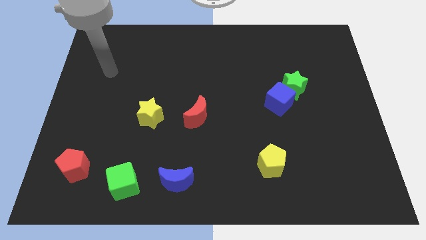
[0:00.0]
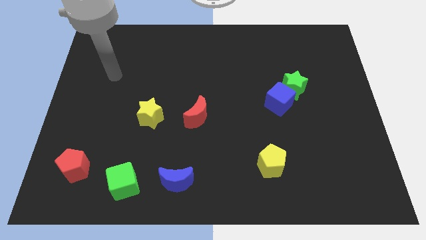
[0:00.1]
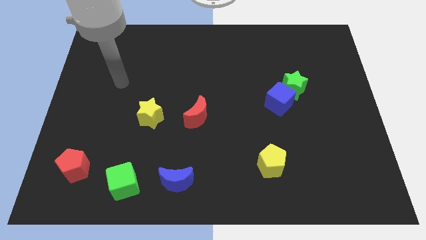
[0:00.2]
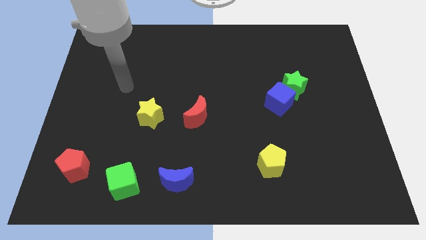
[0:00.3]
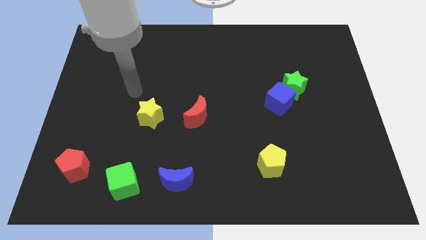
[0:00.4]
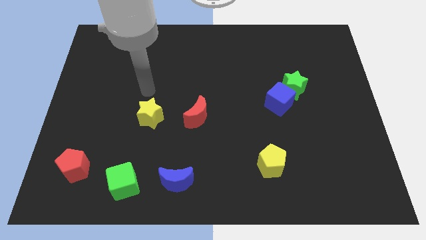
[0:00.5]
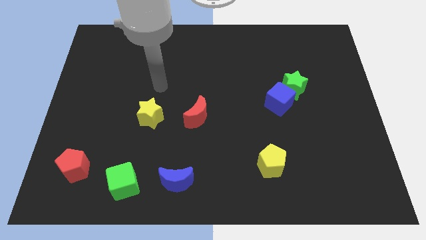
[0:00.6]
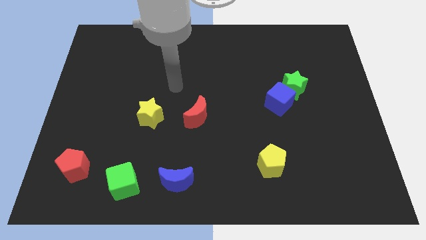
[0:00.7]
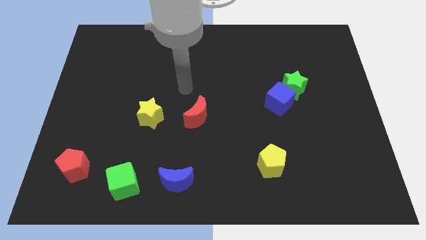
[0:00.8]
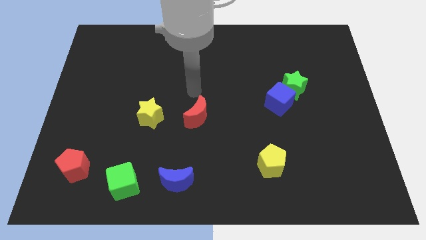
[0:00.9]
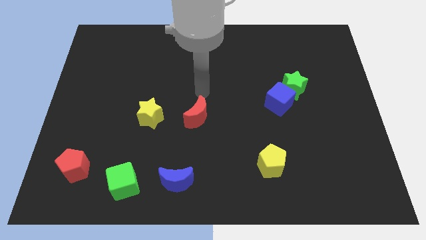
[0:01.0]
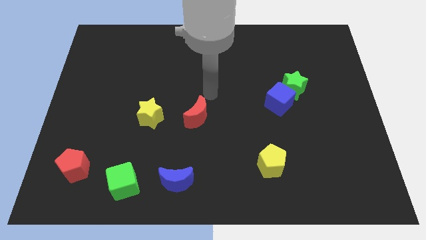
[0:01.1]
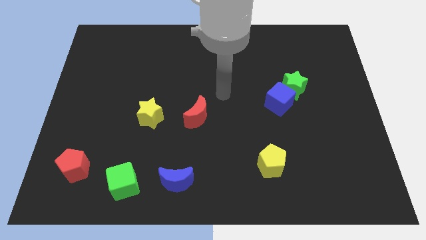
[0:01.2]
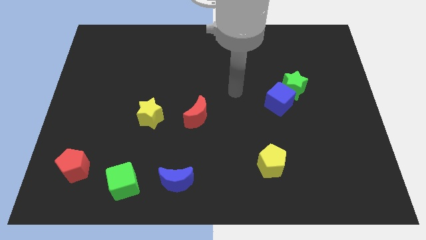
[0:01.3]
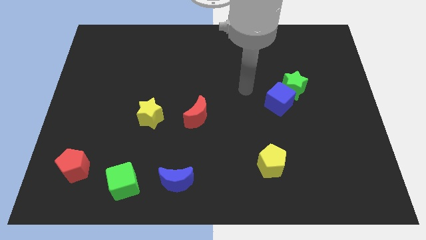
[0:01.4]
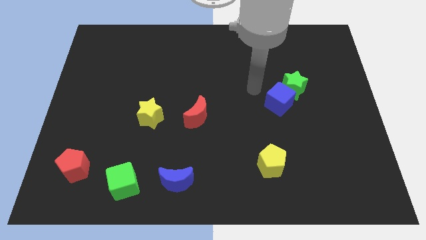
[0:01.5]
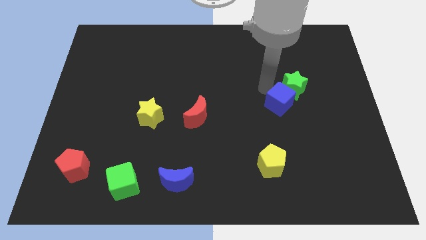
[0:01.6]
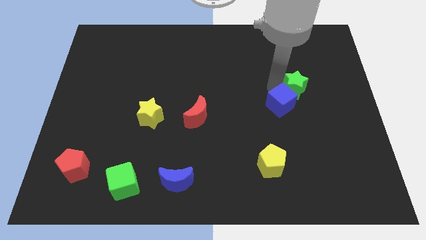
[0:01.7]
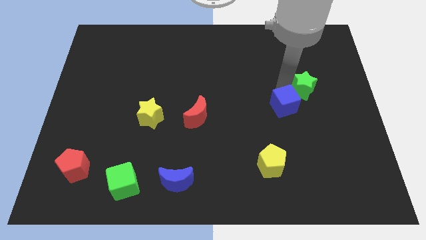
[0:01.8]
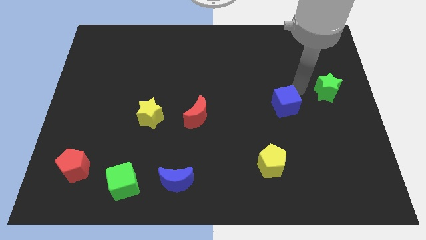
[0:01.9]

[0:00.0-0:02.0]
move the blue cube away from the green star

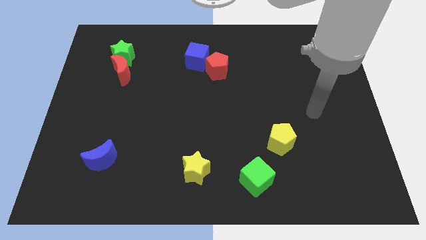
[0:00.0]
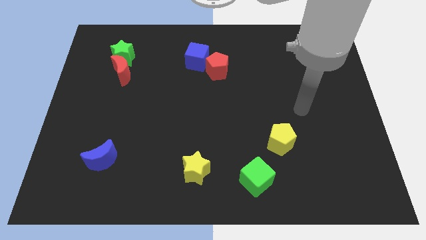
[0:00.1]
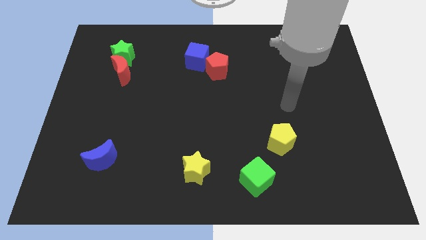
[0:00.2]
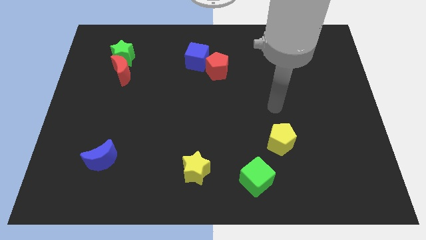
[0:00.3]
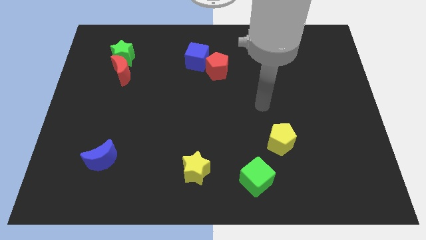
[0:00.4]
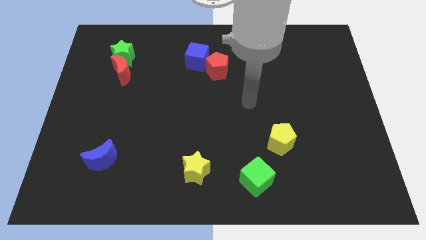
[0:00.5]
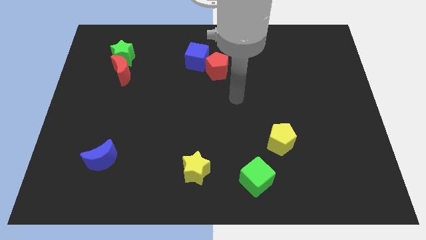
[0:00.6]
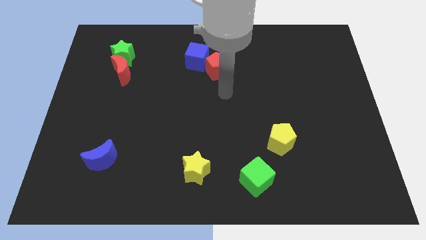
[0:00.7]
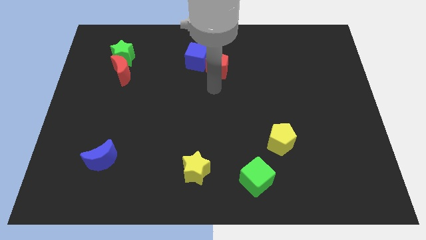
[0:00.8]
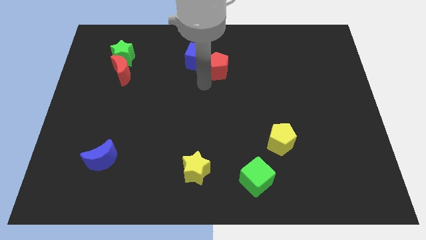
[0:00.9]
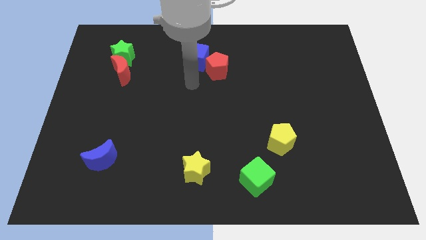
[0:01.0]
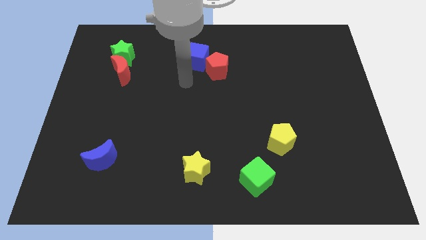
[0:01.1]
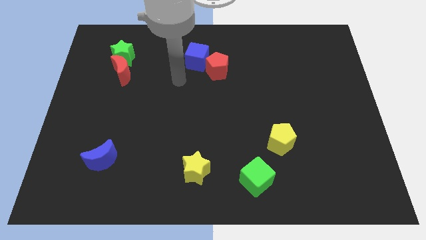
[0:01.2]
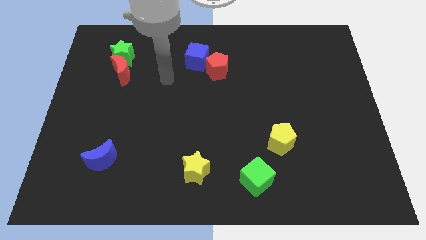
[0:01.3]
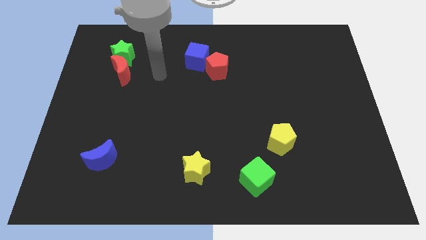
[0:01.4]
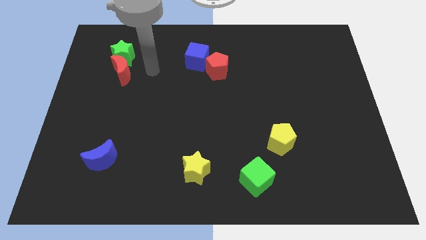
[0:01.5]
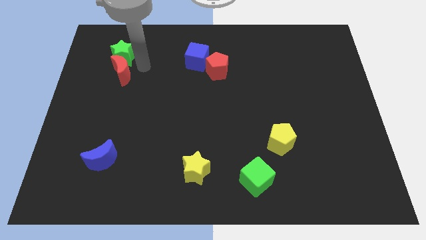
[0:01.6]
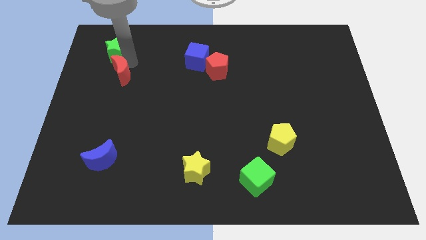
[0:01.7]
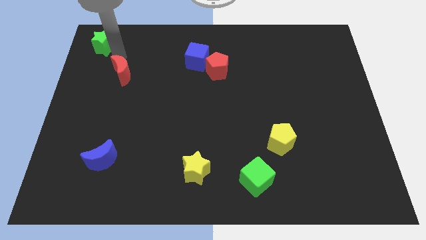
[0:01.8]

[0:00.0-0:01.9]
separate the red moon from the green star

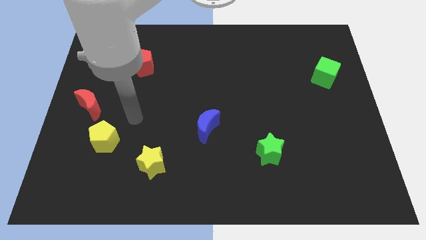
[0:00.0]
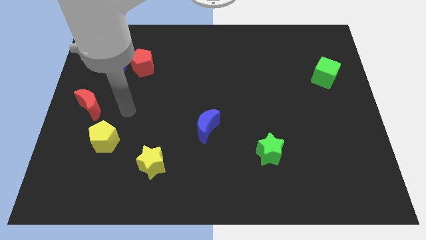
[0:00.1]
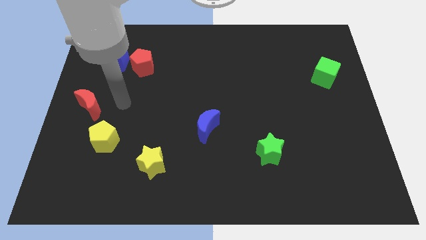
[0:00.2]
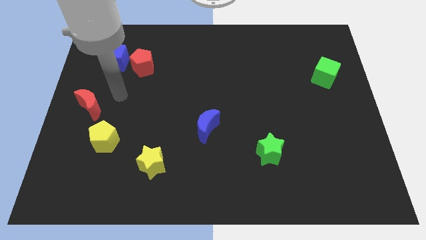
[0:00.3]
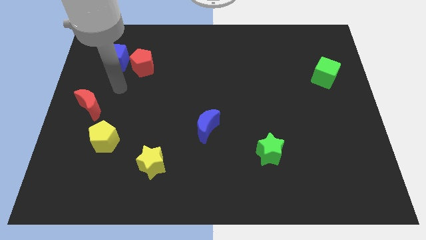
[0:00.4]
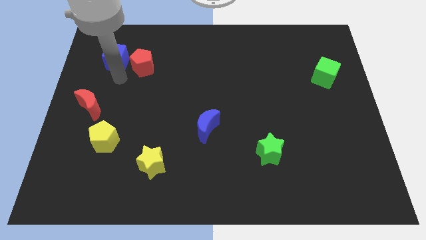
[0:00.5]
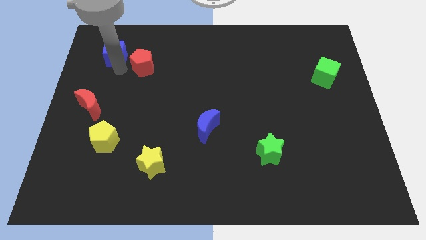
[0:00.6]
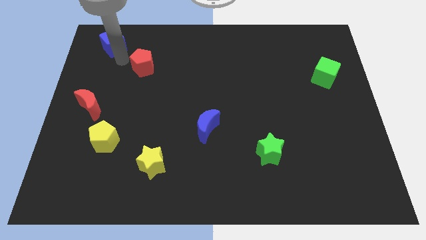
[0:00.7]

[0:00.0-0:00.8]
separate the red pentagon from the blue cube

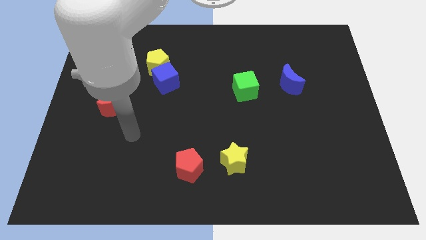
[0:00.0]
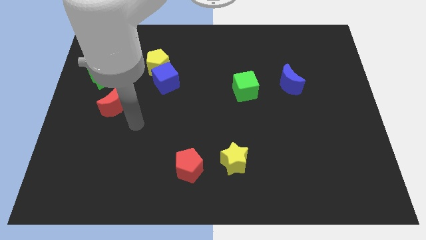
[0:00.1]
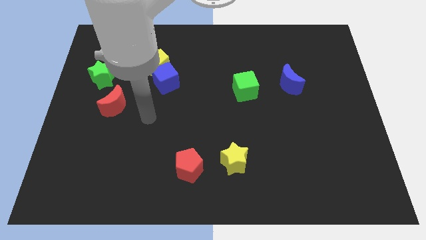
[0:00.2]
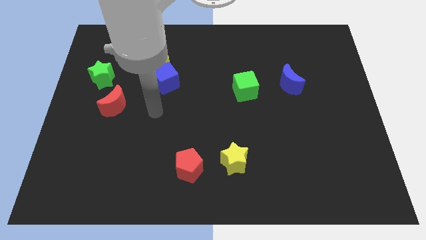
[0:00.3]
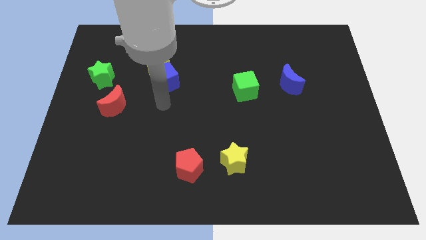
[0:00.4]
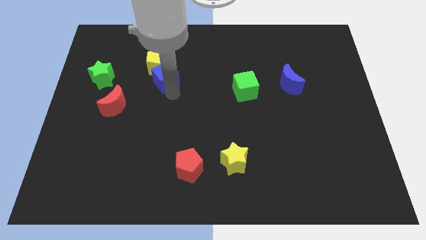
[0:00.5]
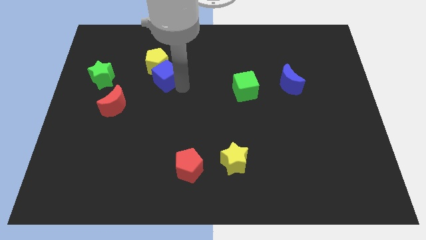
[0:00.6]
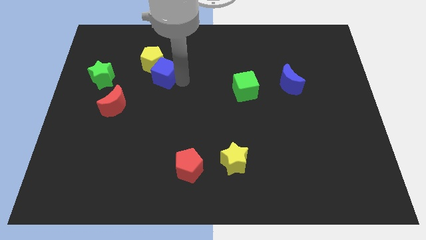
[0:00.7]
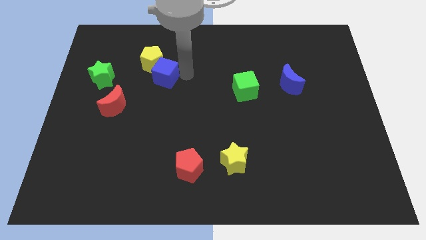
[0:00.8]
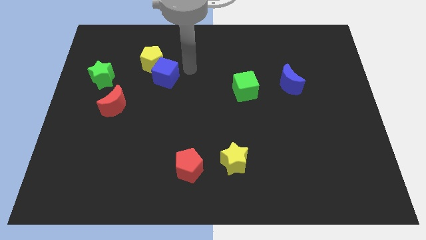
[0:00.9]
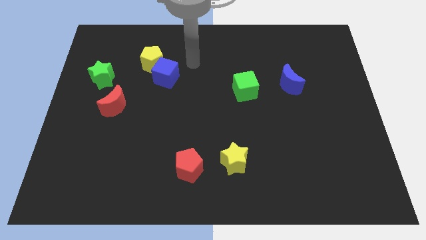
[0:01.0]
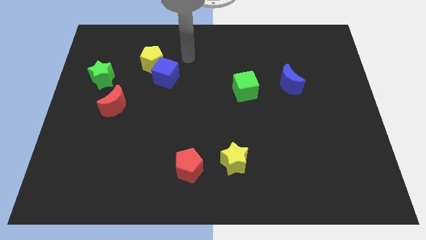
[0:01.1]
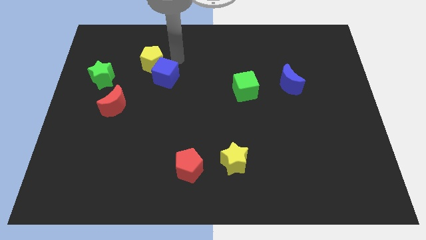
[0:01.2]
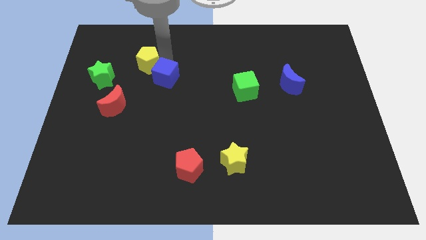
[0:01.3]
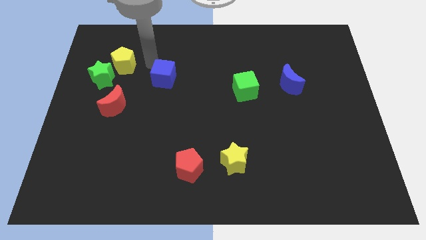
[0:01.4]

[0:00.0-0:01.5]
separate the blue cube from the yellow pentagon

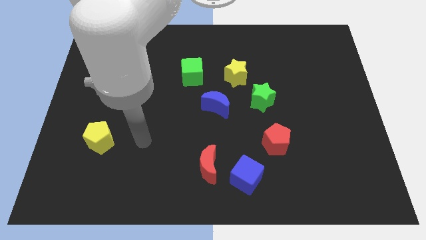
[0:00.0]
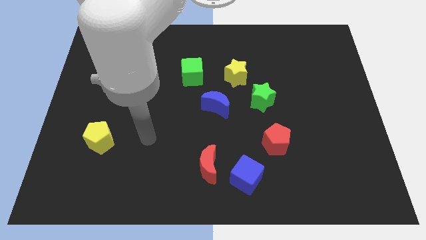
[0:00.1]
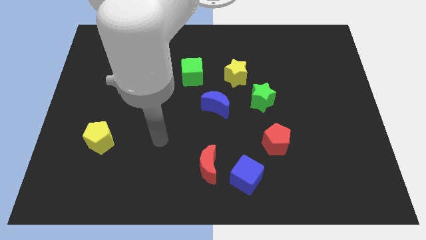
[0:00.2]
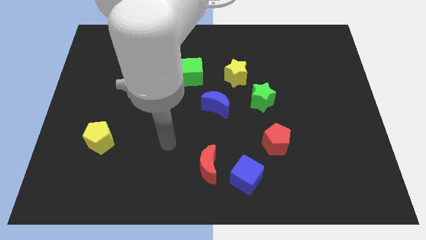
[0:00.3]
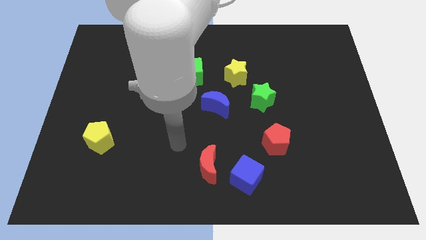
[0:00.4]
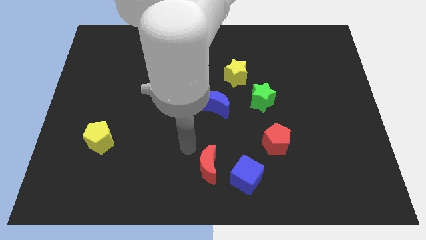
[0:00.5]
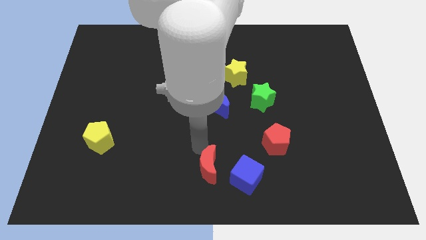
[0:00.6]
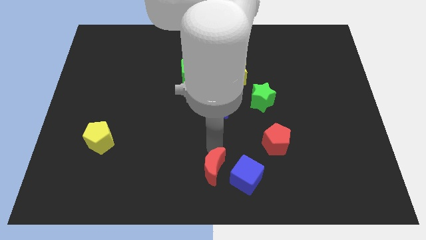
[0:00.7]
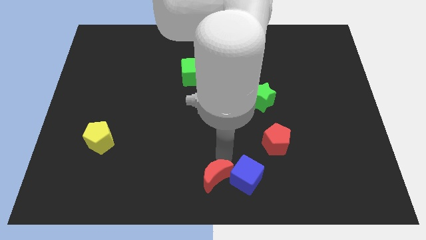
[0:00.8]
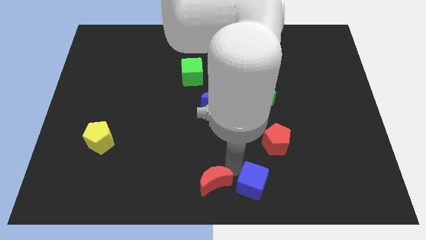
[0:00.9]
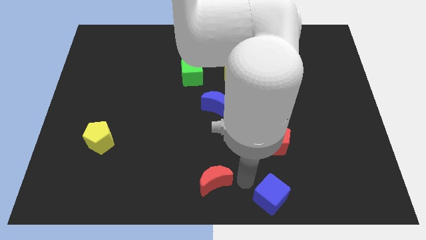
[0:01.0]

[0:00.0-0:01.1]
move the red moon away from the blue cube

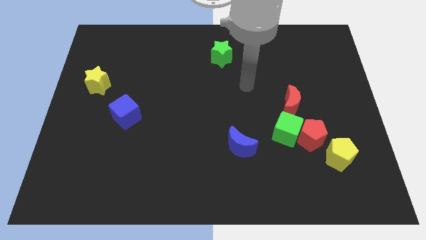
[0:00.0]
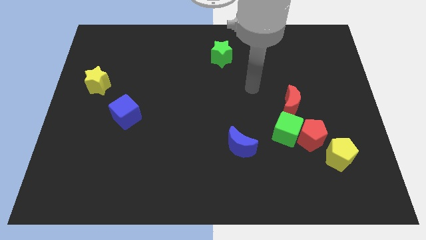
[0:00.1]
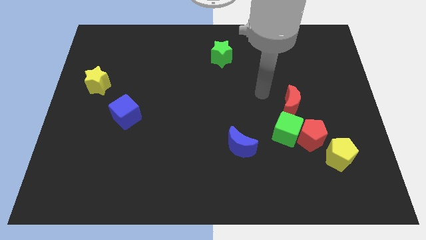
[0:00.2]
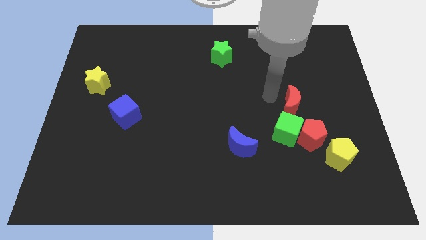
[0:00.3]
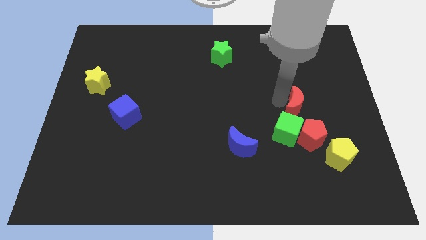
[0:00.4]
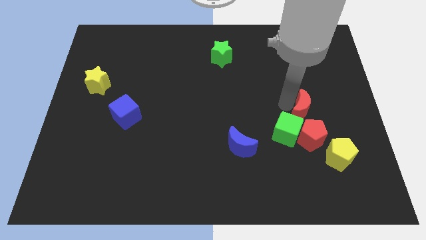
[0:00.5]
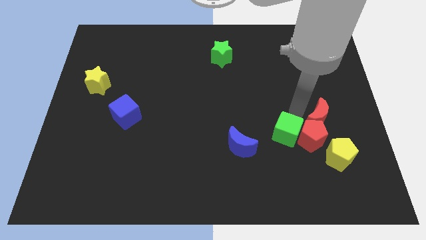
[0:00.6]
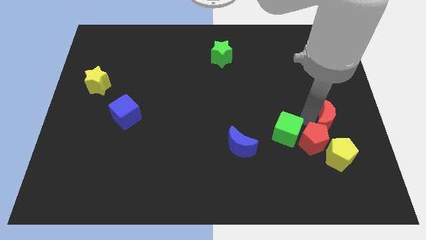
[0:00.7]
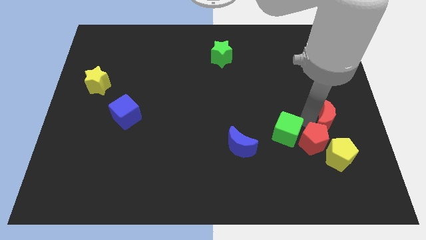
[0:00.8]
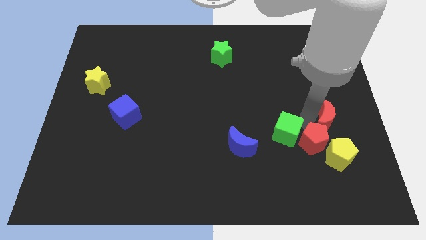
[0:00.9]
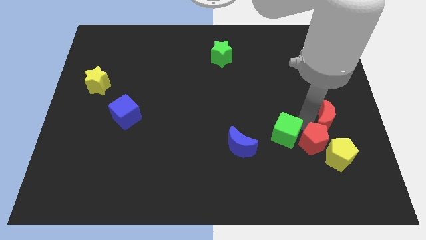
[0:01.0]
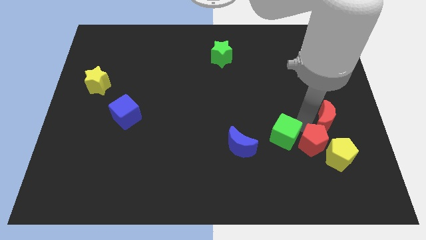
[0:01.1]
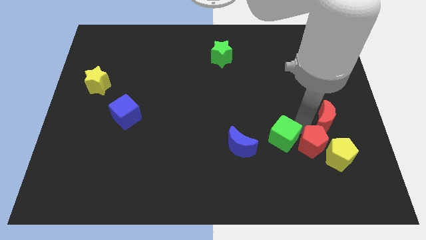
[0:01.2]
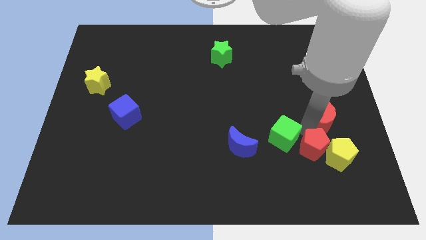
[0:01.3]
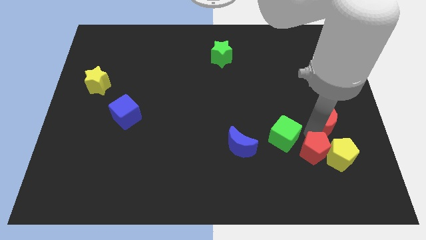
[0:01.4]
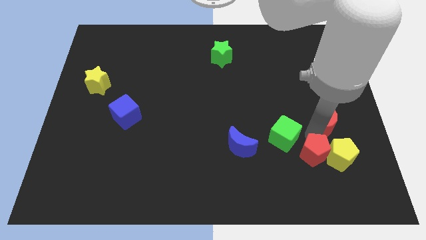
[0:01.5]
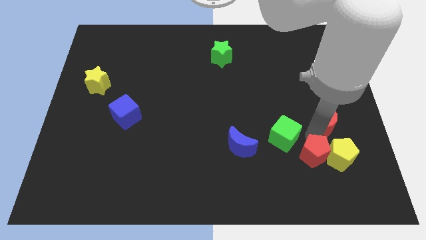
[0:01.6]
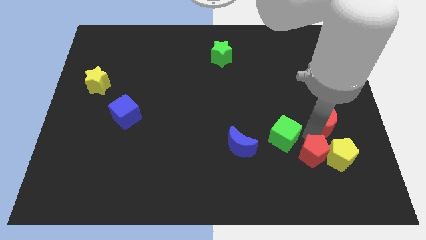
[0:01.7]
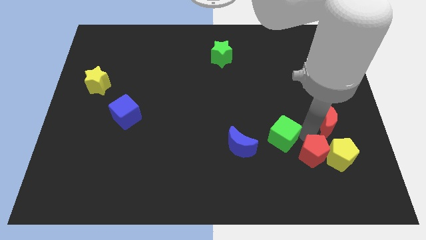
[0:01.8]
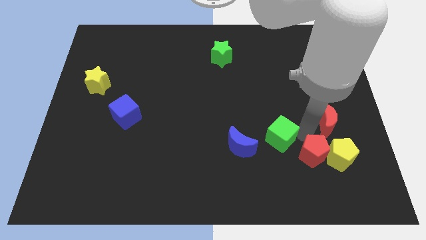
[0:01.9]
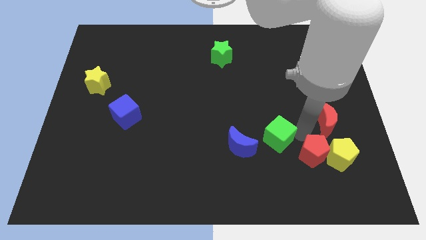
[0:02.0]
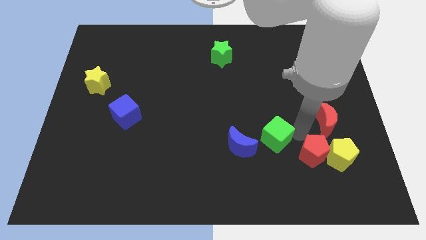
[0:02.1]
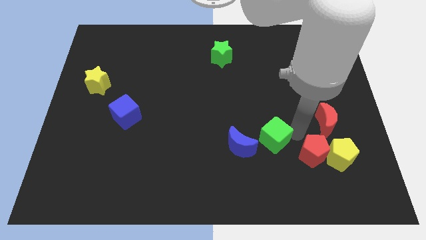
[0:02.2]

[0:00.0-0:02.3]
separate the green cube from the red pentagon and red moon
